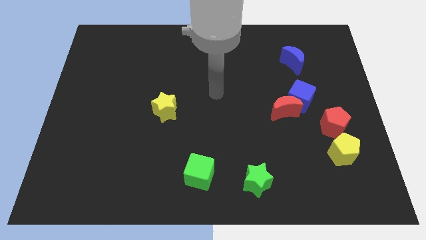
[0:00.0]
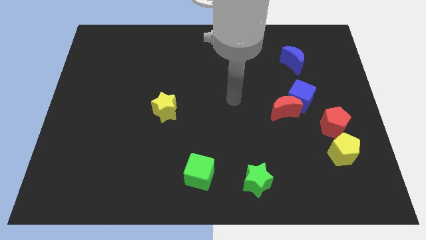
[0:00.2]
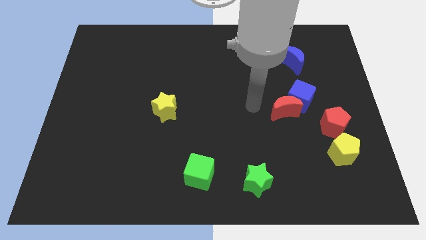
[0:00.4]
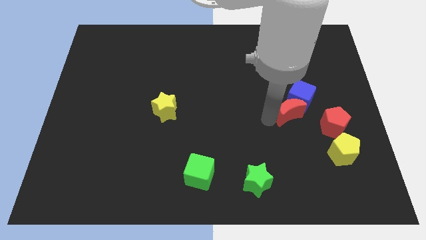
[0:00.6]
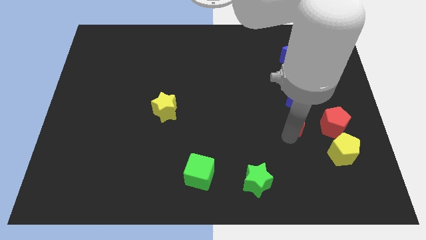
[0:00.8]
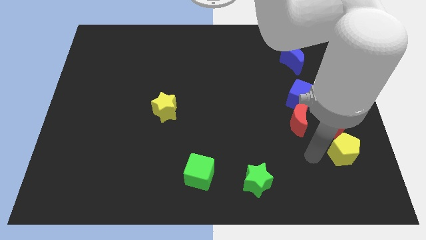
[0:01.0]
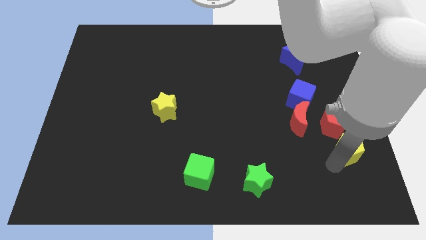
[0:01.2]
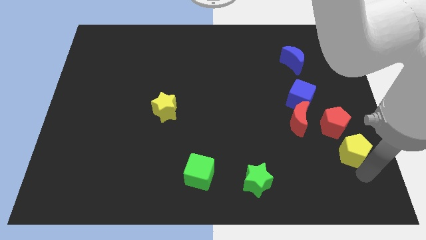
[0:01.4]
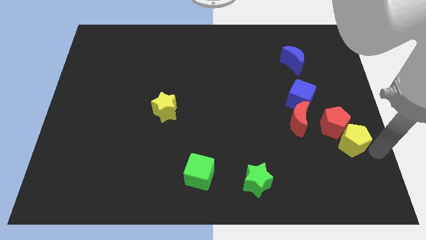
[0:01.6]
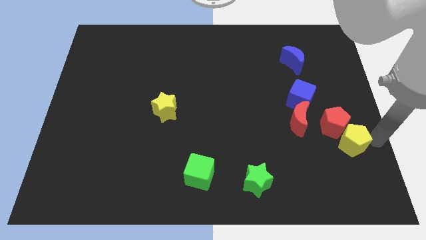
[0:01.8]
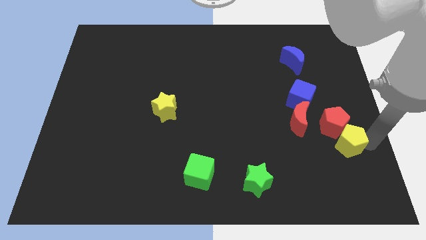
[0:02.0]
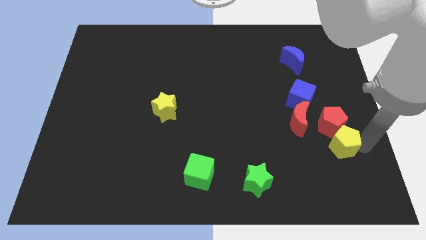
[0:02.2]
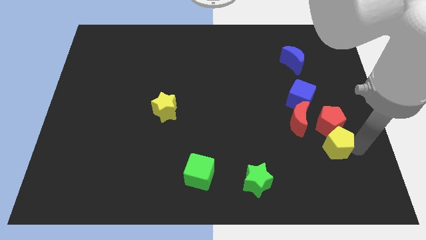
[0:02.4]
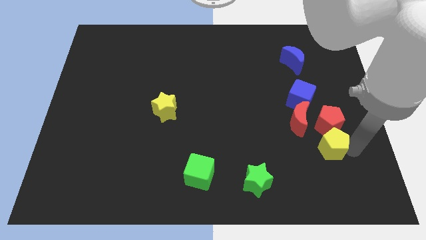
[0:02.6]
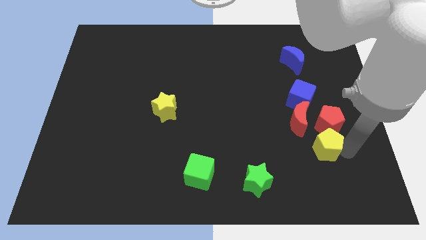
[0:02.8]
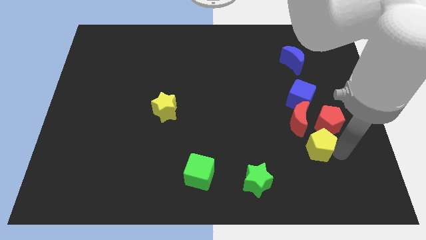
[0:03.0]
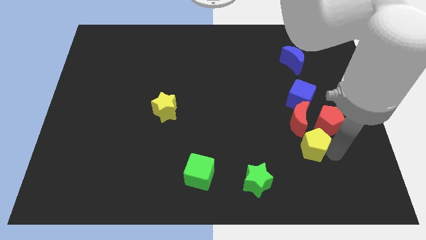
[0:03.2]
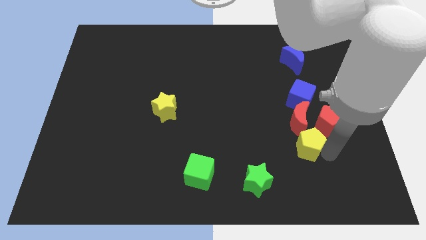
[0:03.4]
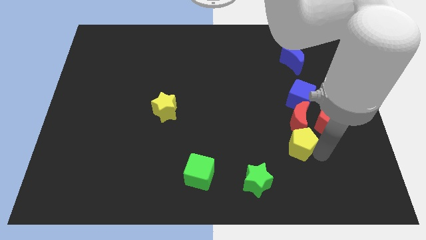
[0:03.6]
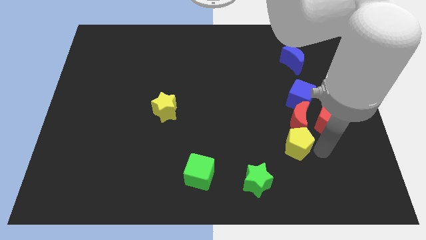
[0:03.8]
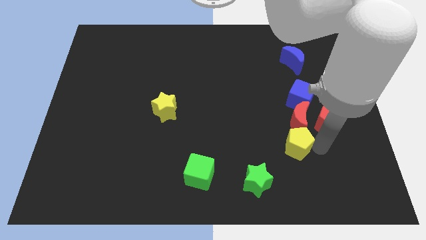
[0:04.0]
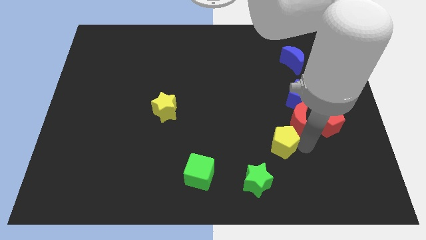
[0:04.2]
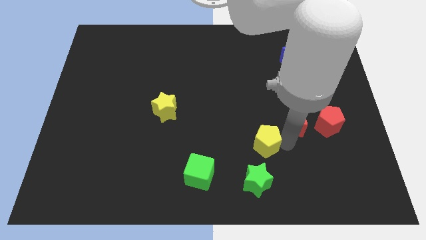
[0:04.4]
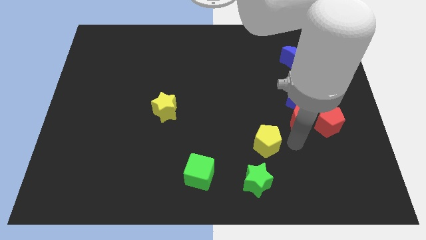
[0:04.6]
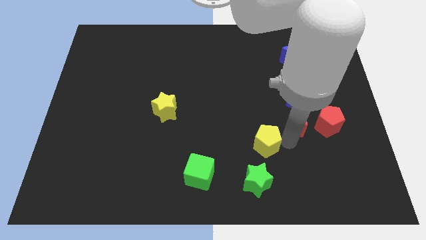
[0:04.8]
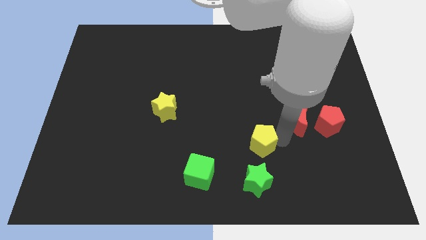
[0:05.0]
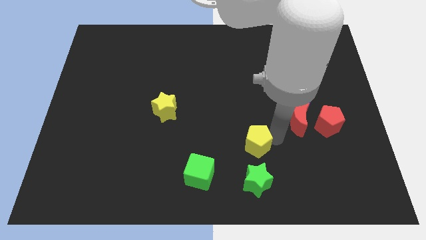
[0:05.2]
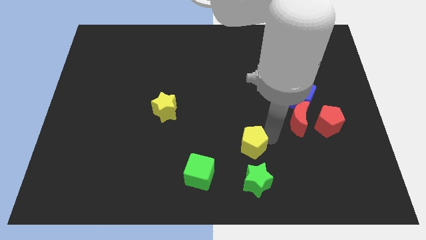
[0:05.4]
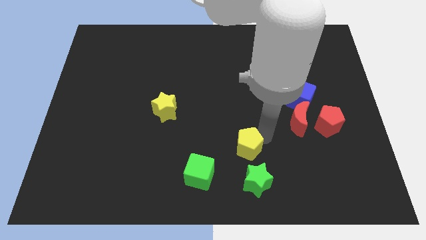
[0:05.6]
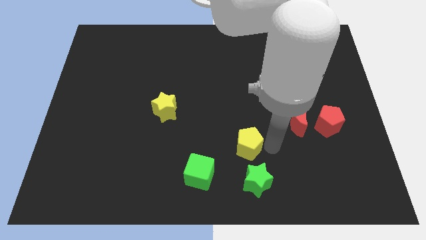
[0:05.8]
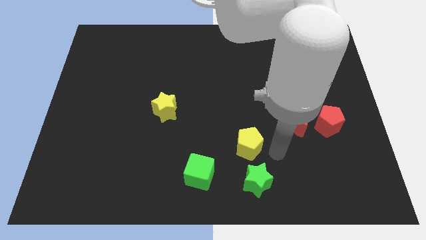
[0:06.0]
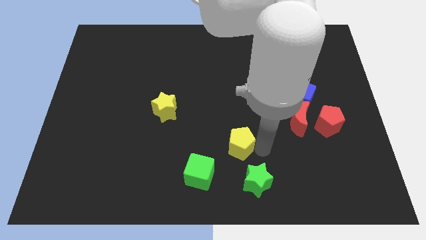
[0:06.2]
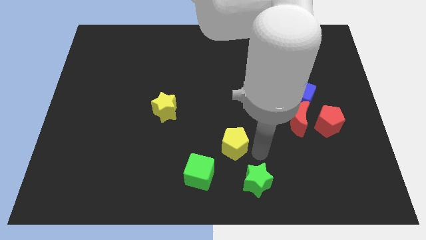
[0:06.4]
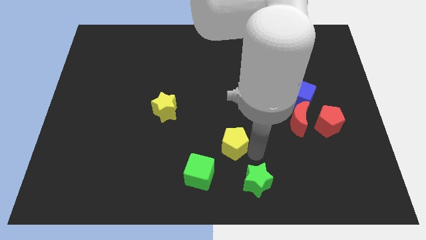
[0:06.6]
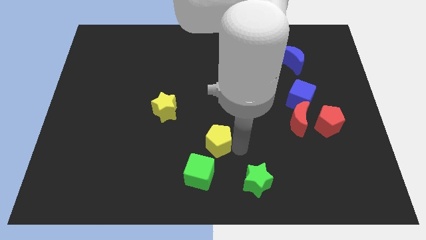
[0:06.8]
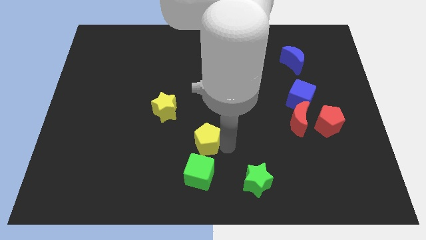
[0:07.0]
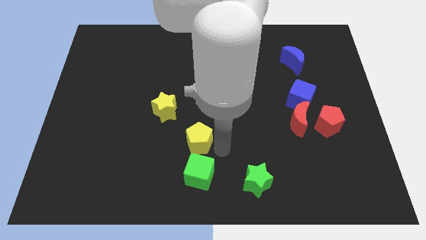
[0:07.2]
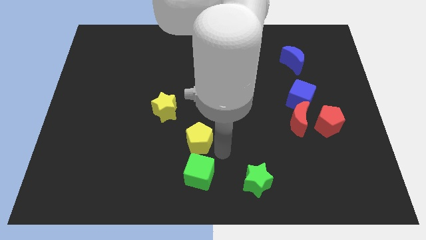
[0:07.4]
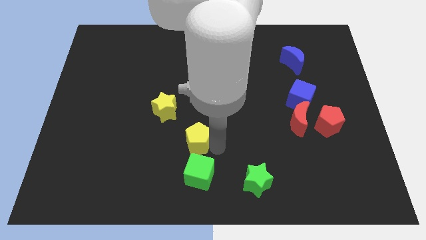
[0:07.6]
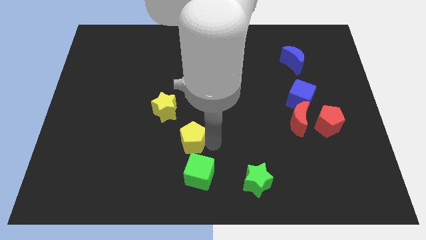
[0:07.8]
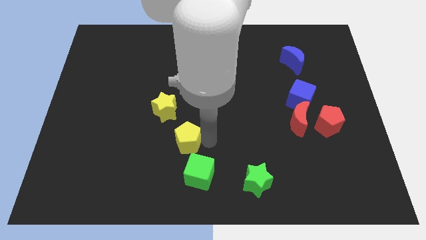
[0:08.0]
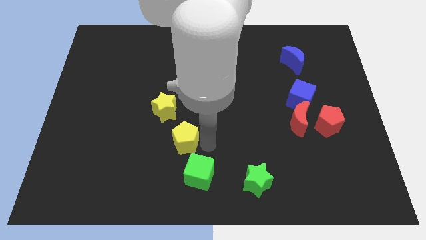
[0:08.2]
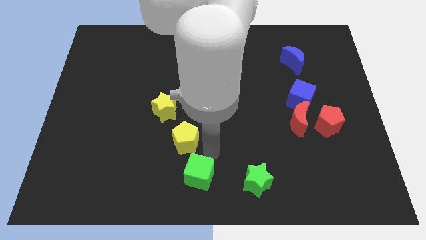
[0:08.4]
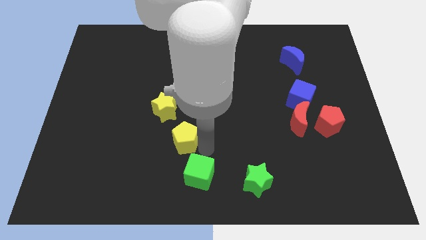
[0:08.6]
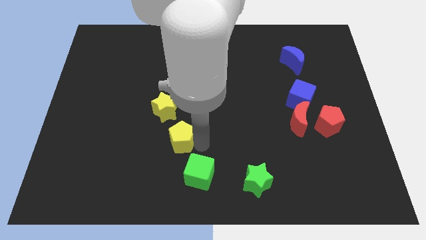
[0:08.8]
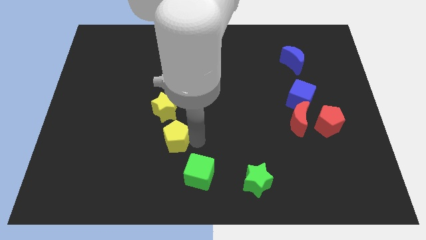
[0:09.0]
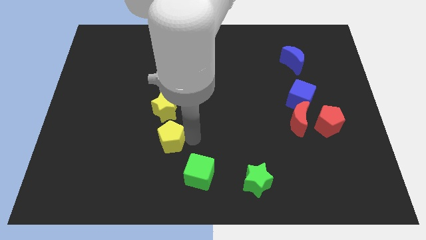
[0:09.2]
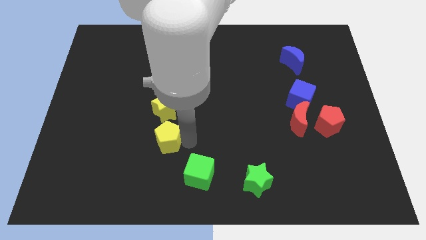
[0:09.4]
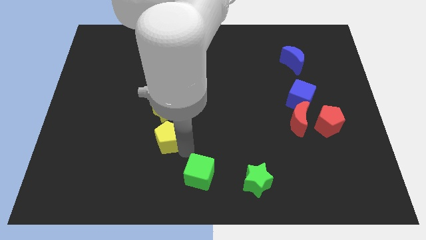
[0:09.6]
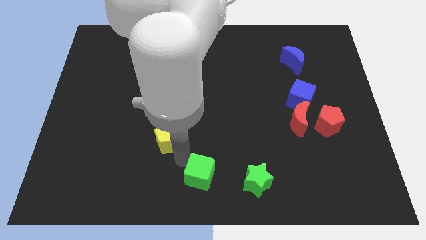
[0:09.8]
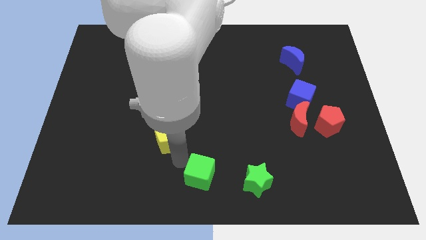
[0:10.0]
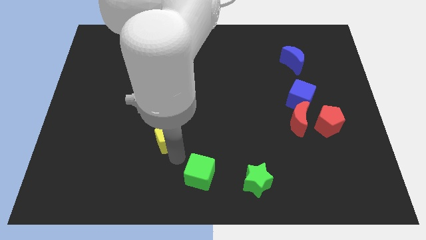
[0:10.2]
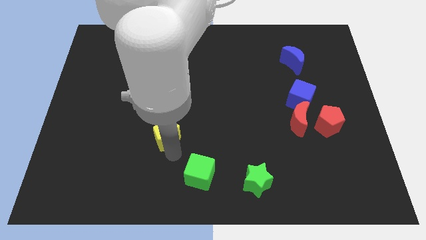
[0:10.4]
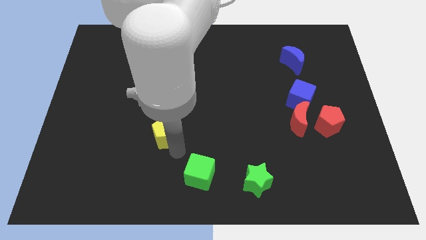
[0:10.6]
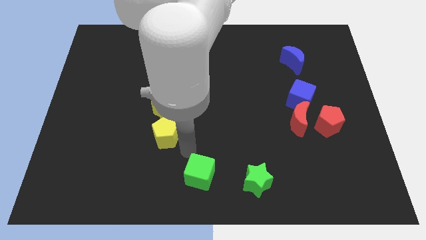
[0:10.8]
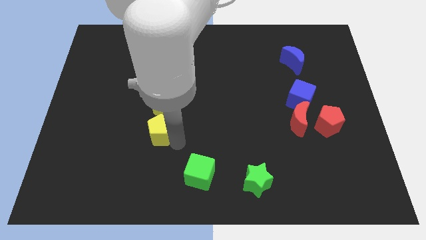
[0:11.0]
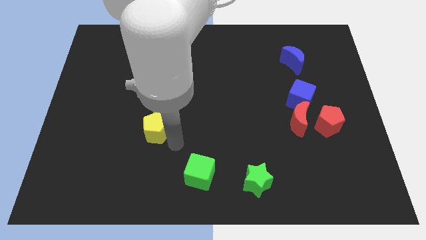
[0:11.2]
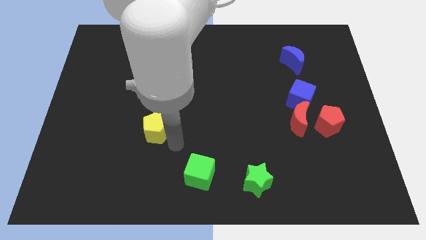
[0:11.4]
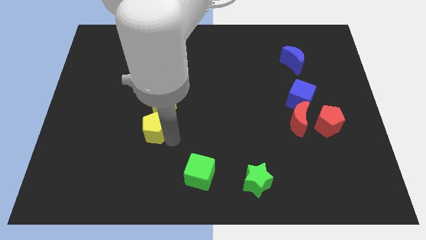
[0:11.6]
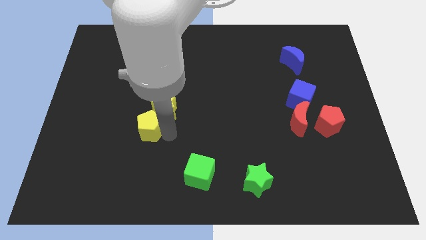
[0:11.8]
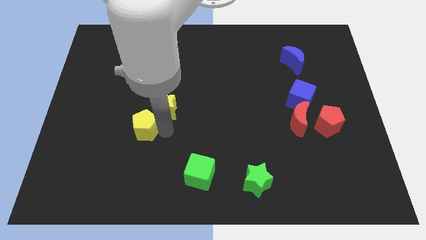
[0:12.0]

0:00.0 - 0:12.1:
slide the yellow pentagon to the left of the yellow star

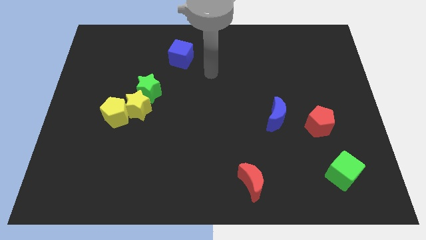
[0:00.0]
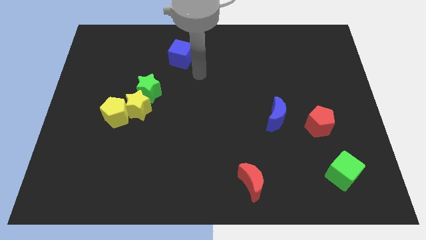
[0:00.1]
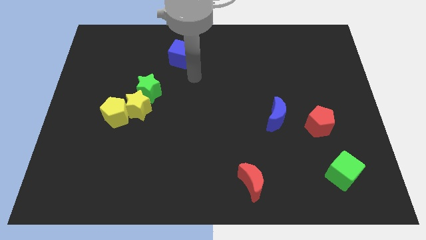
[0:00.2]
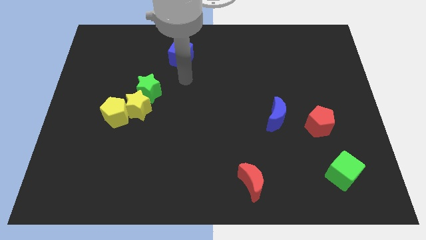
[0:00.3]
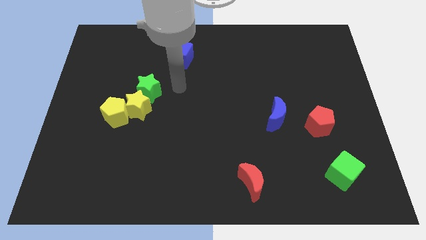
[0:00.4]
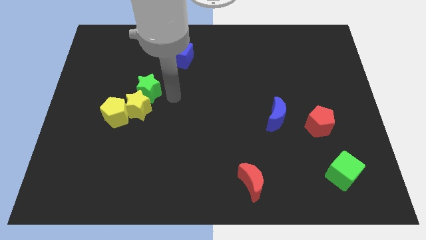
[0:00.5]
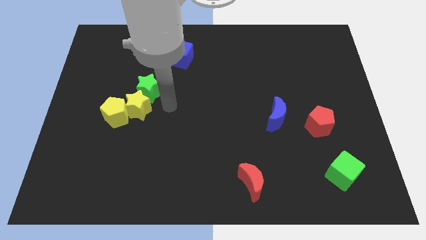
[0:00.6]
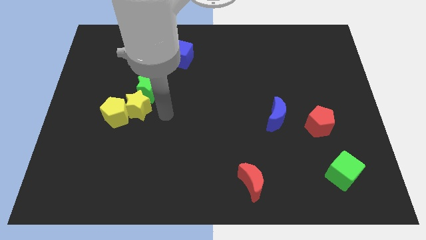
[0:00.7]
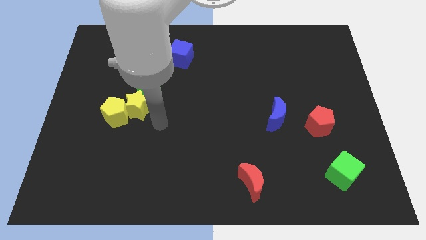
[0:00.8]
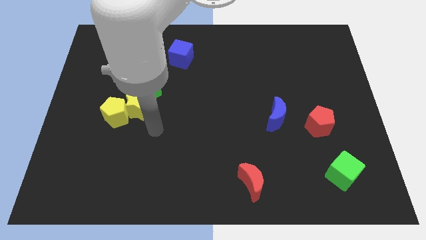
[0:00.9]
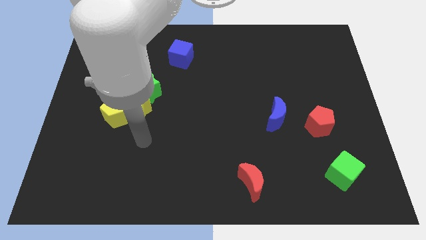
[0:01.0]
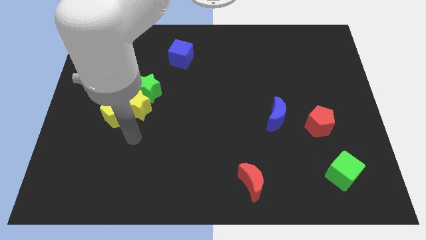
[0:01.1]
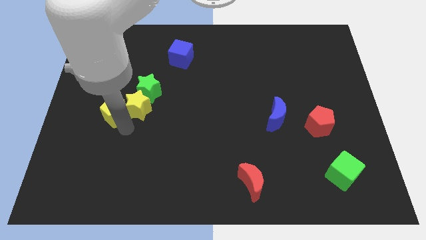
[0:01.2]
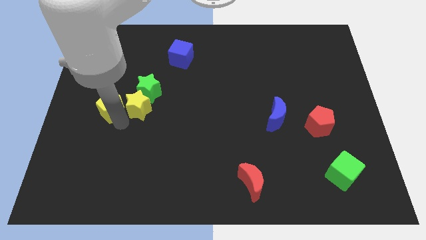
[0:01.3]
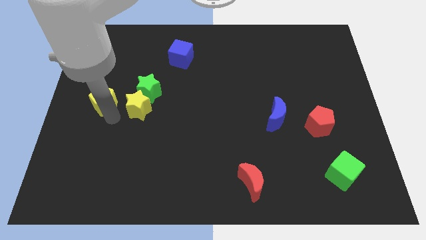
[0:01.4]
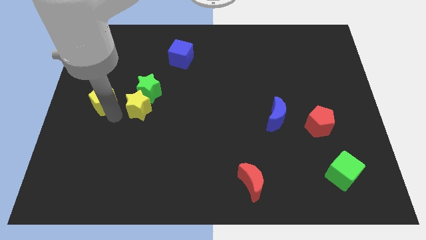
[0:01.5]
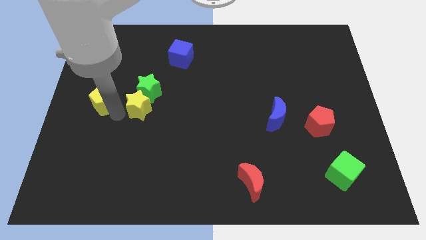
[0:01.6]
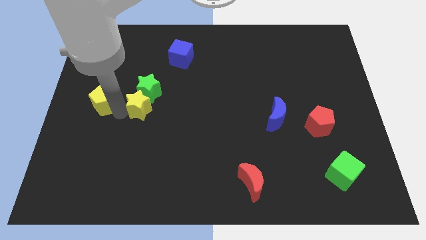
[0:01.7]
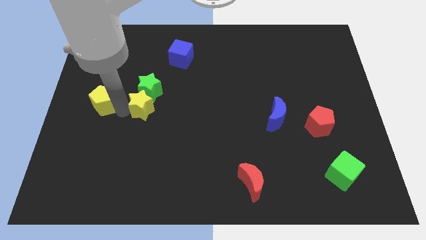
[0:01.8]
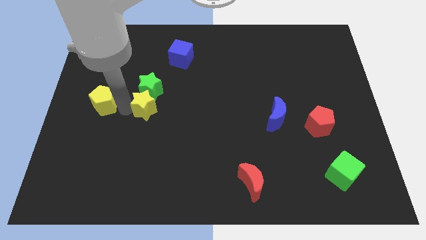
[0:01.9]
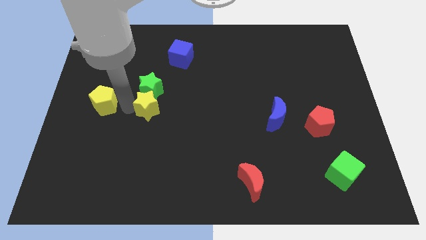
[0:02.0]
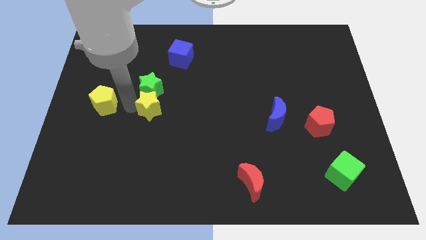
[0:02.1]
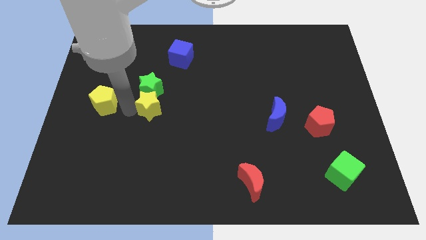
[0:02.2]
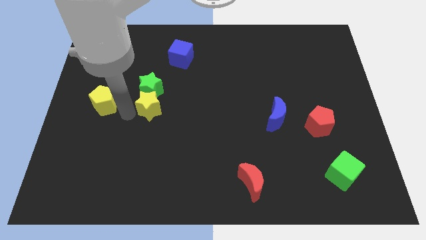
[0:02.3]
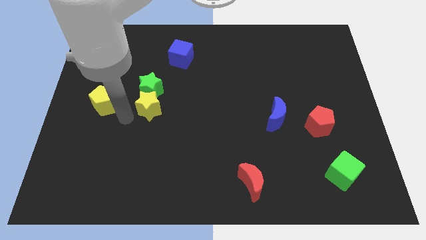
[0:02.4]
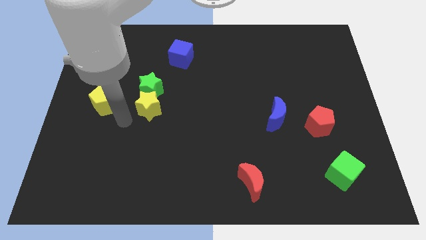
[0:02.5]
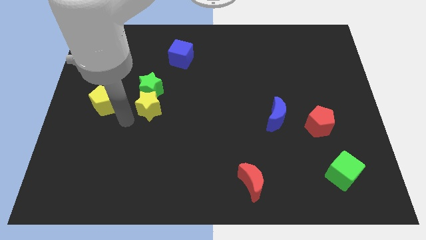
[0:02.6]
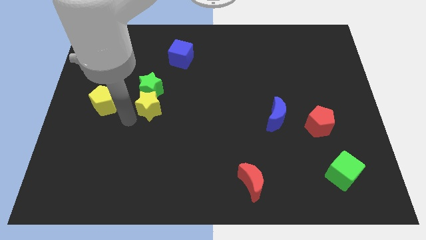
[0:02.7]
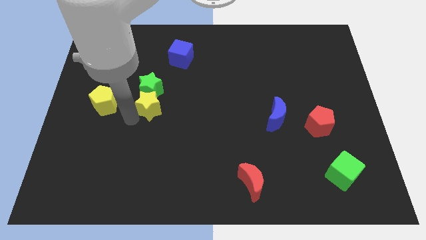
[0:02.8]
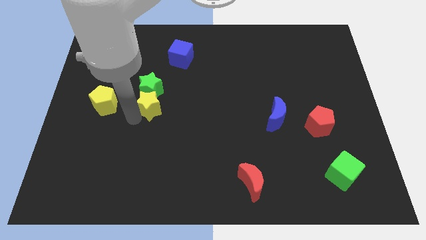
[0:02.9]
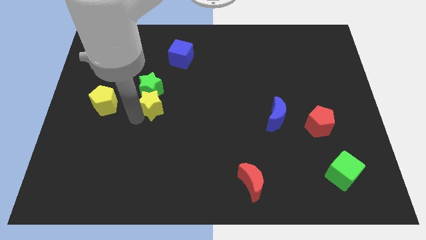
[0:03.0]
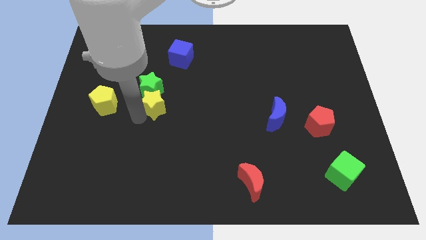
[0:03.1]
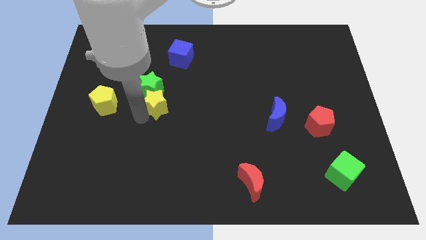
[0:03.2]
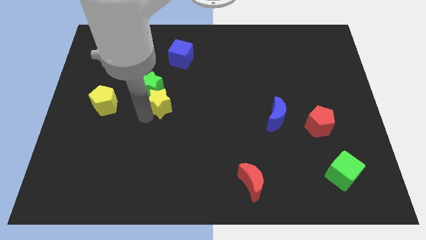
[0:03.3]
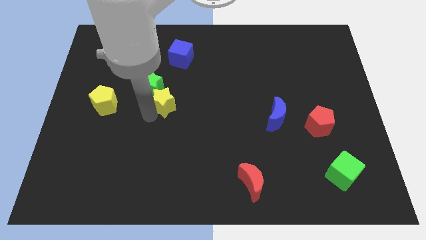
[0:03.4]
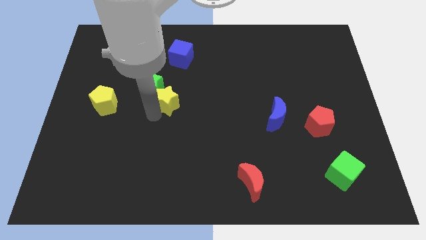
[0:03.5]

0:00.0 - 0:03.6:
put the yellow star just right of the green star
